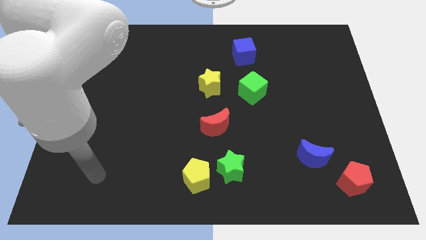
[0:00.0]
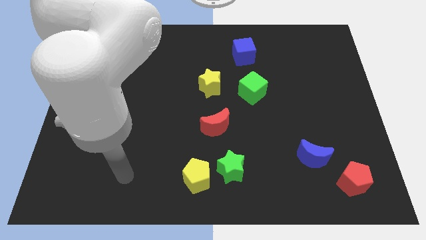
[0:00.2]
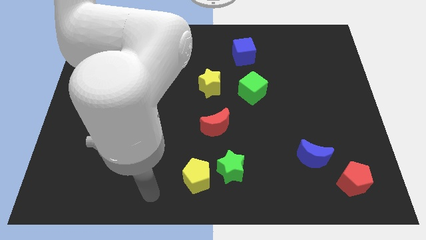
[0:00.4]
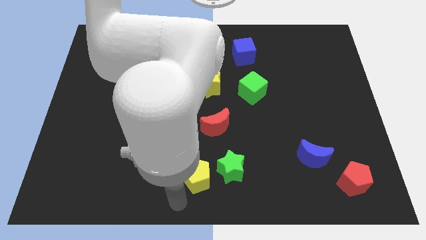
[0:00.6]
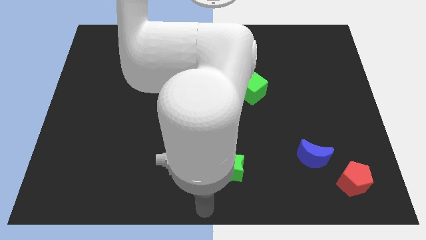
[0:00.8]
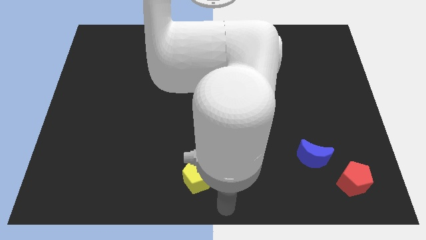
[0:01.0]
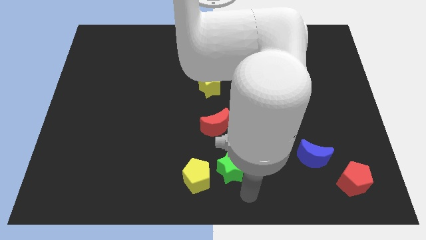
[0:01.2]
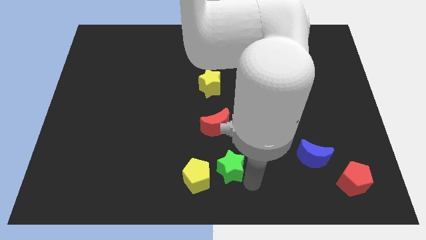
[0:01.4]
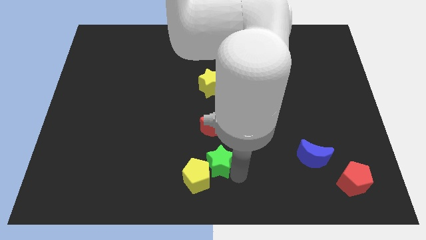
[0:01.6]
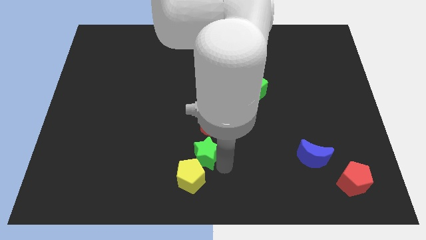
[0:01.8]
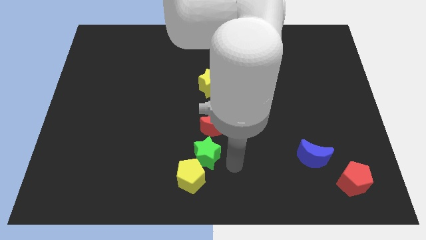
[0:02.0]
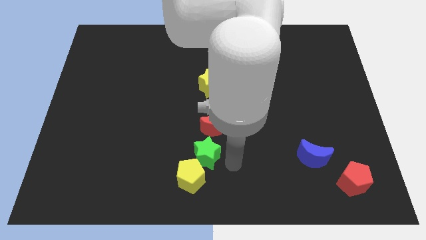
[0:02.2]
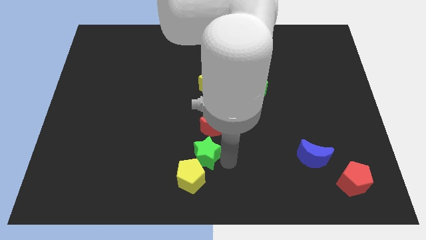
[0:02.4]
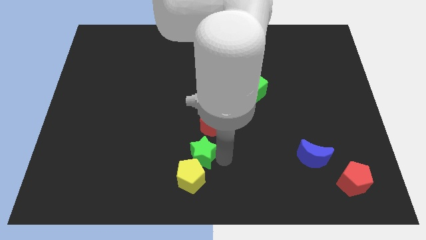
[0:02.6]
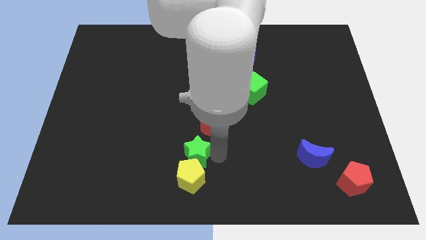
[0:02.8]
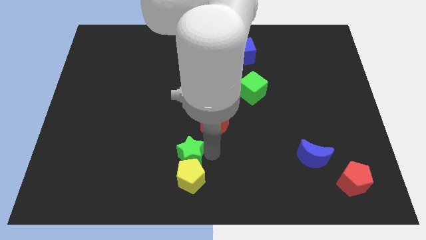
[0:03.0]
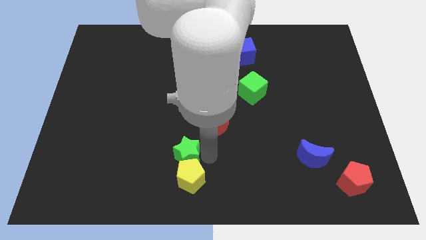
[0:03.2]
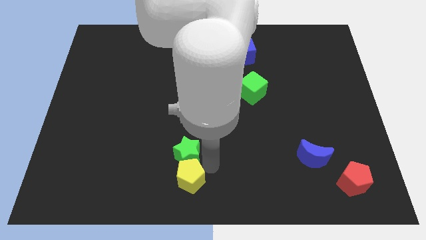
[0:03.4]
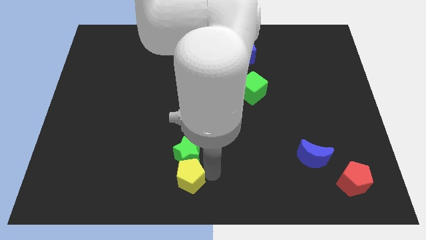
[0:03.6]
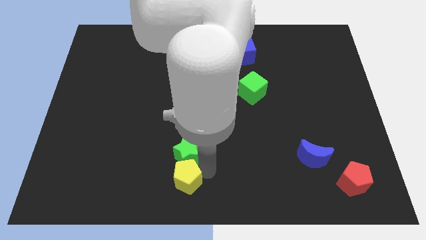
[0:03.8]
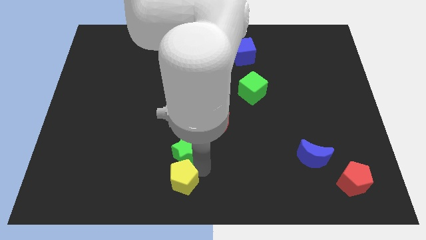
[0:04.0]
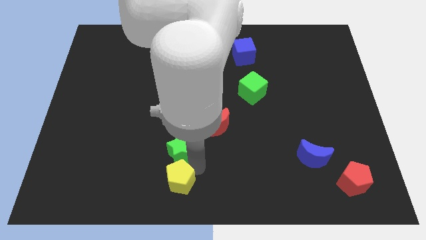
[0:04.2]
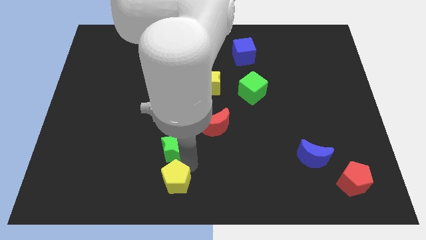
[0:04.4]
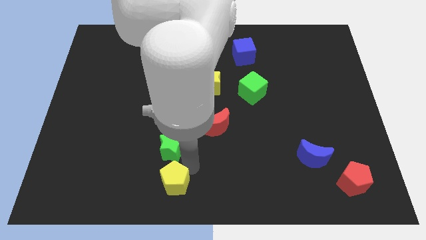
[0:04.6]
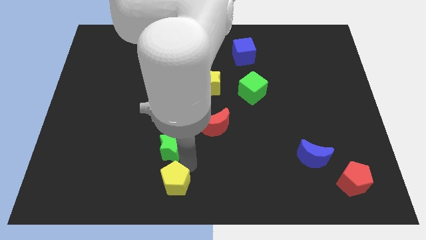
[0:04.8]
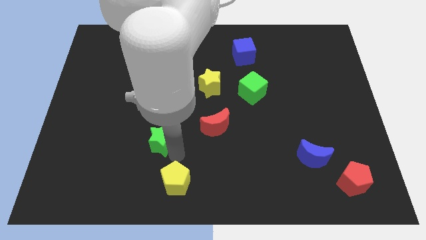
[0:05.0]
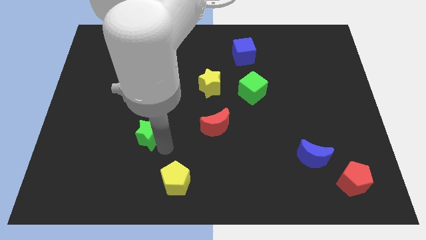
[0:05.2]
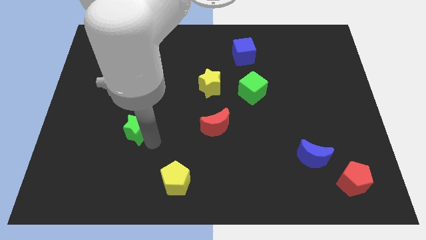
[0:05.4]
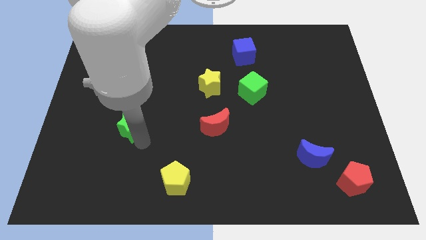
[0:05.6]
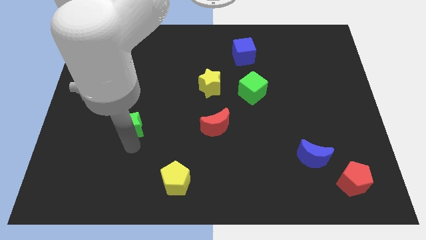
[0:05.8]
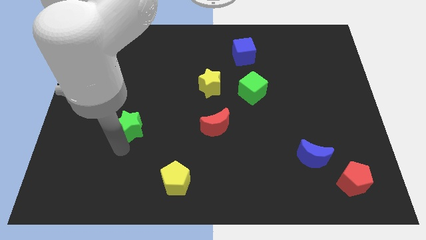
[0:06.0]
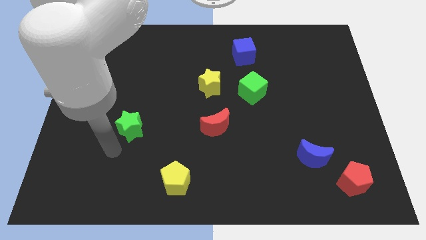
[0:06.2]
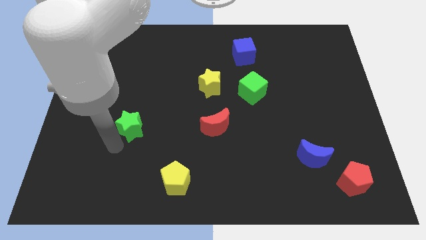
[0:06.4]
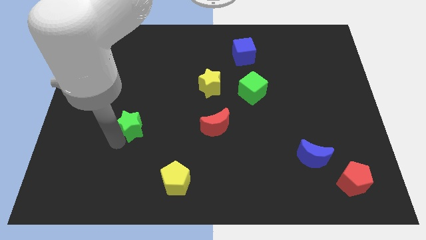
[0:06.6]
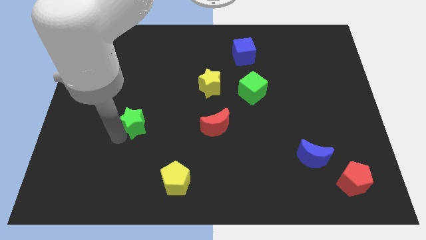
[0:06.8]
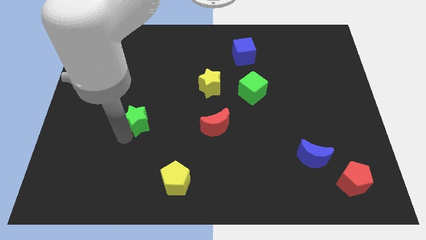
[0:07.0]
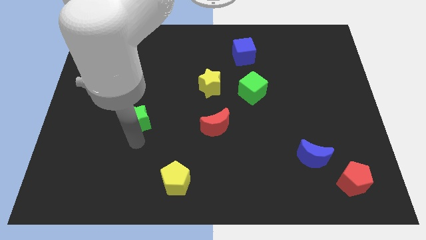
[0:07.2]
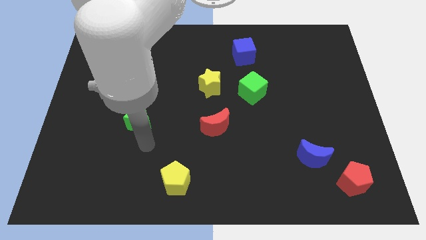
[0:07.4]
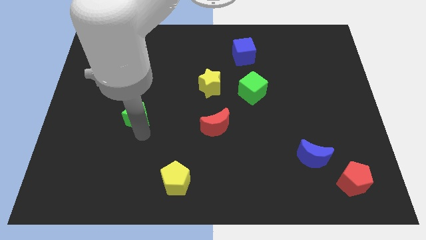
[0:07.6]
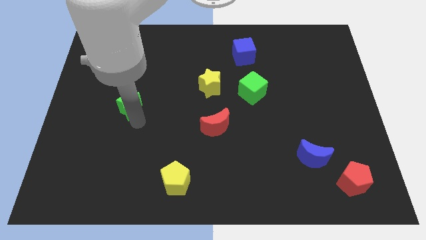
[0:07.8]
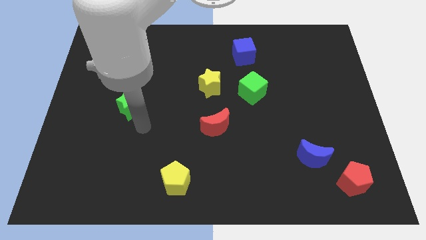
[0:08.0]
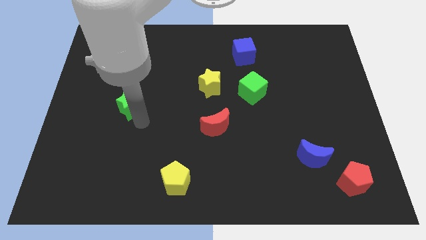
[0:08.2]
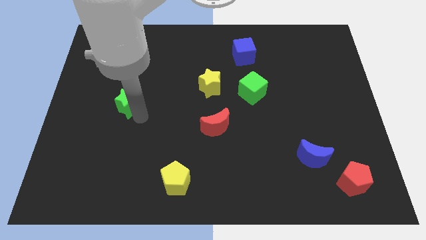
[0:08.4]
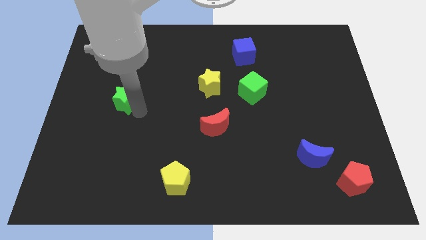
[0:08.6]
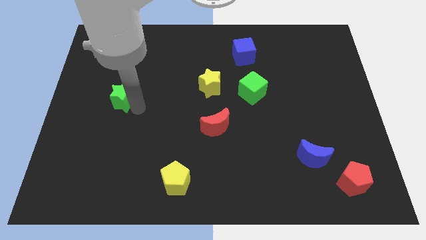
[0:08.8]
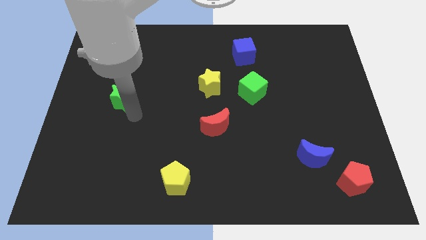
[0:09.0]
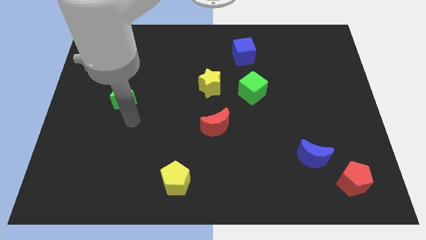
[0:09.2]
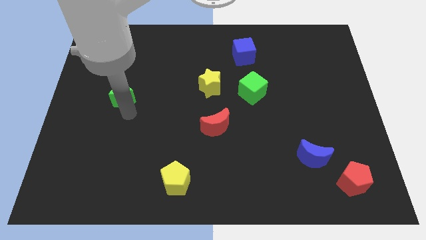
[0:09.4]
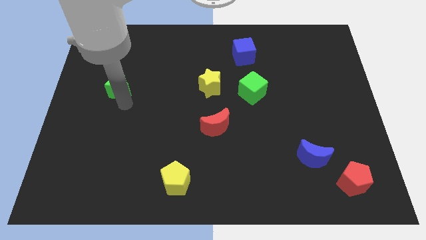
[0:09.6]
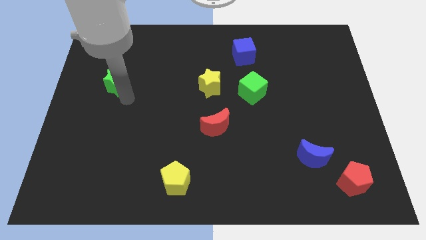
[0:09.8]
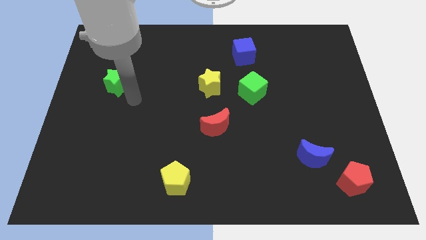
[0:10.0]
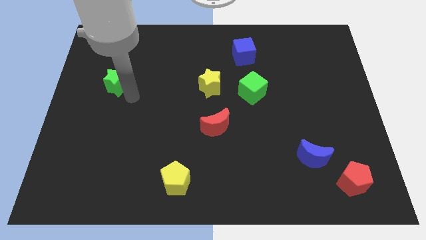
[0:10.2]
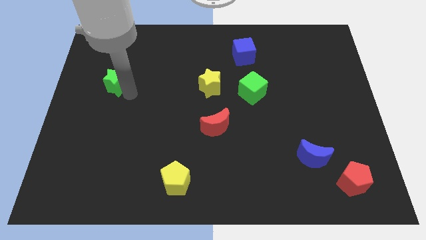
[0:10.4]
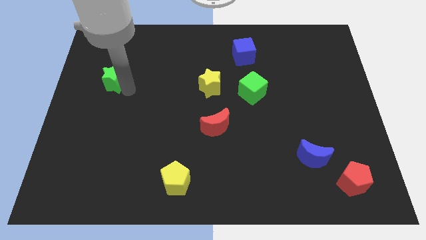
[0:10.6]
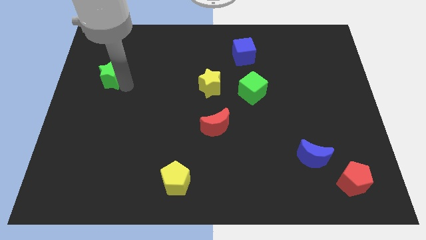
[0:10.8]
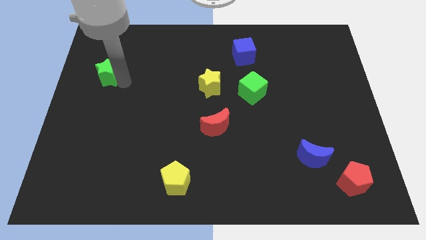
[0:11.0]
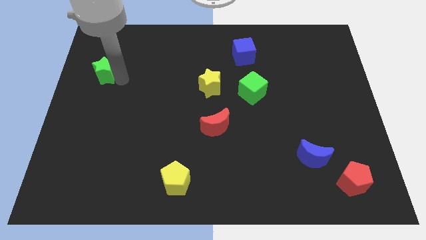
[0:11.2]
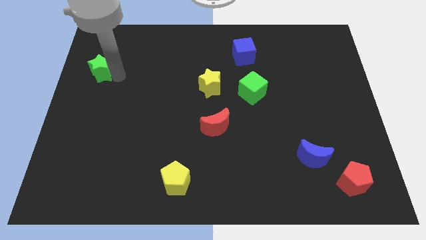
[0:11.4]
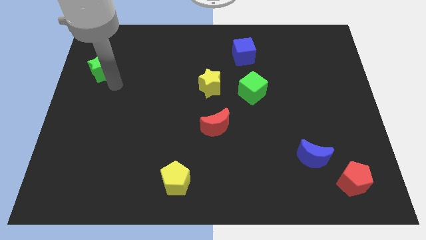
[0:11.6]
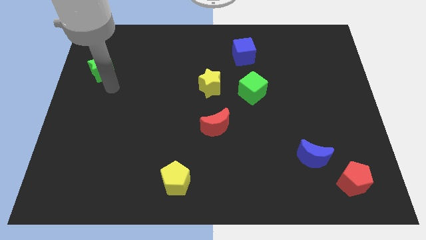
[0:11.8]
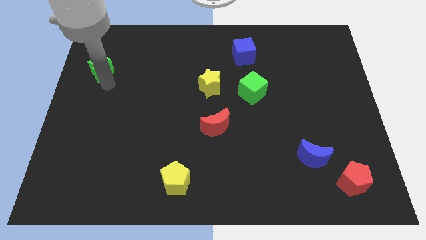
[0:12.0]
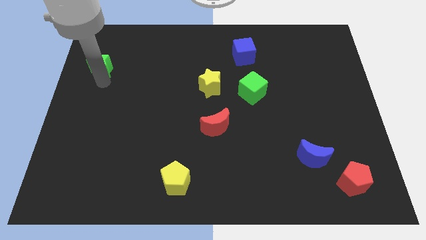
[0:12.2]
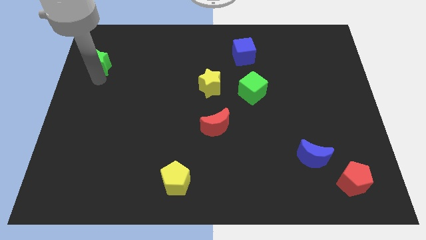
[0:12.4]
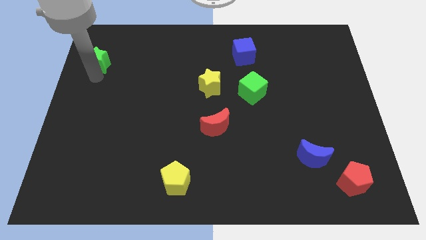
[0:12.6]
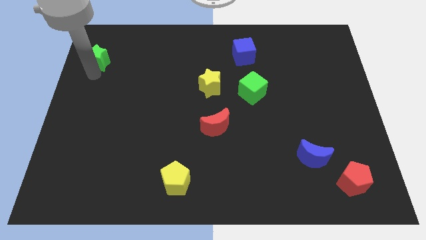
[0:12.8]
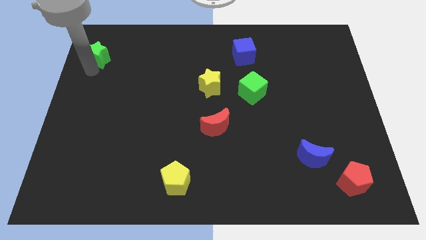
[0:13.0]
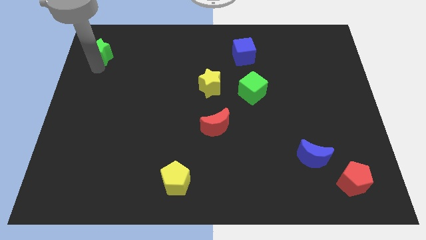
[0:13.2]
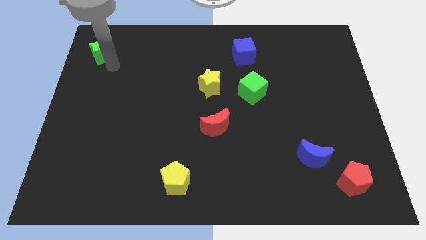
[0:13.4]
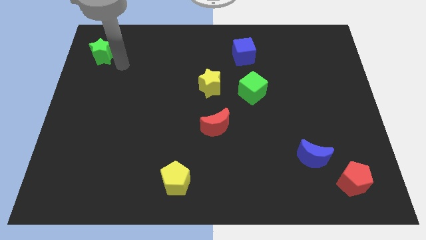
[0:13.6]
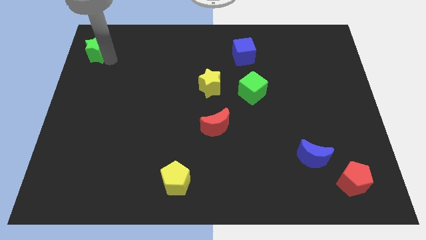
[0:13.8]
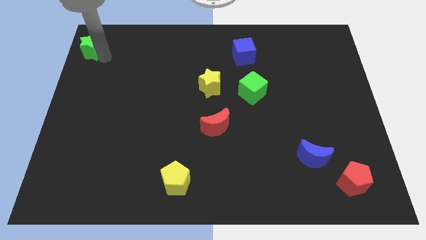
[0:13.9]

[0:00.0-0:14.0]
slide the green star to the top left
